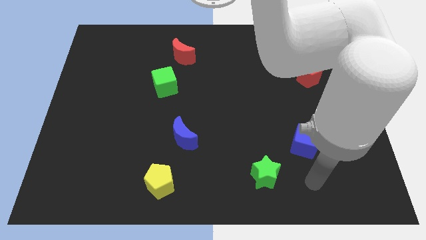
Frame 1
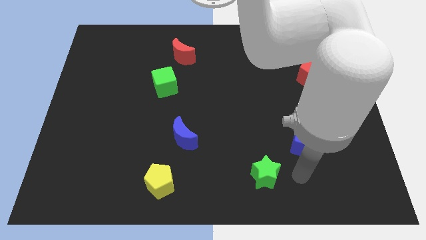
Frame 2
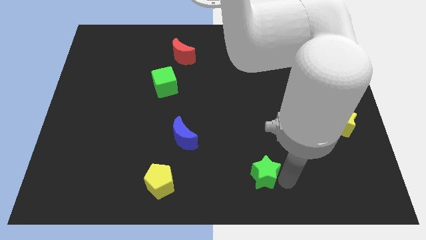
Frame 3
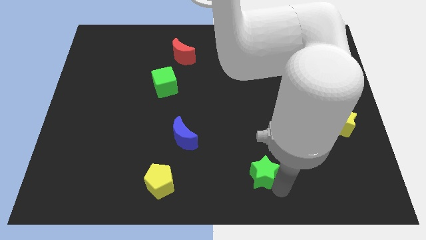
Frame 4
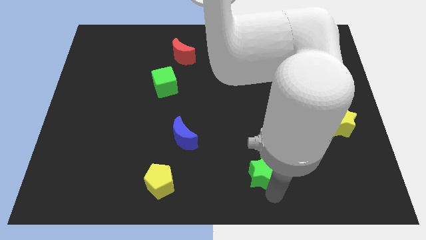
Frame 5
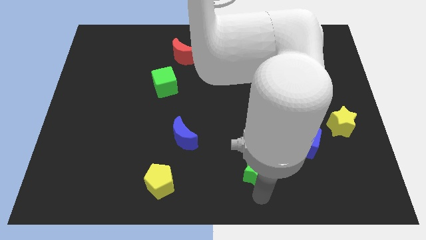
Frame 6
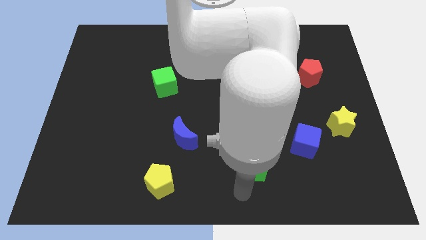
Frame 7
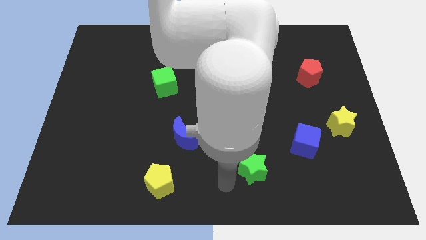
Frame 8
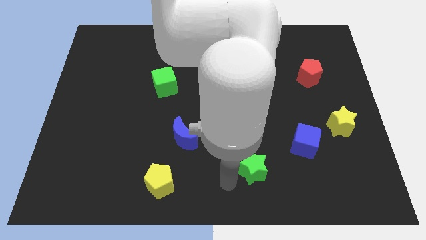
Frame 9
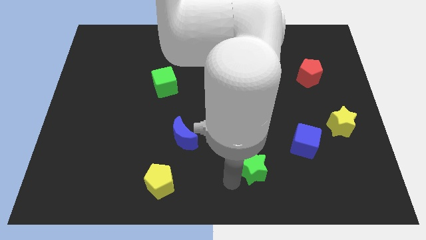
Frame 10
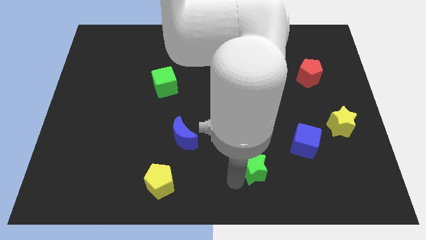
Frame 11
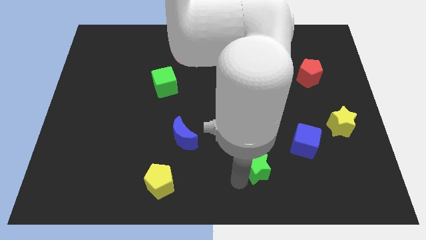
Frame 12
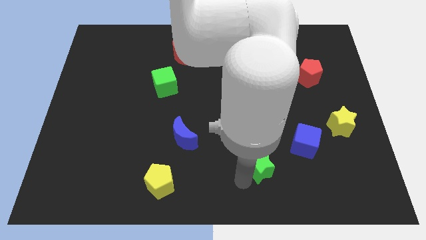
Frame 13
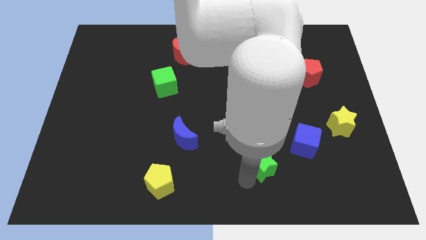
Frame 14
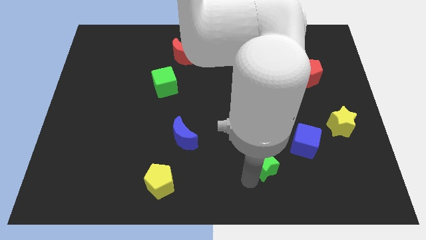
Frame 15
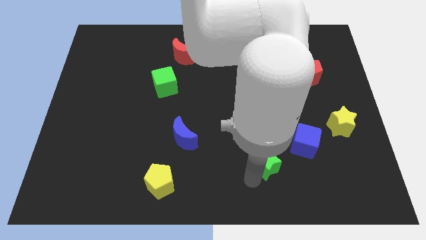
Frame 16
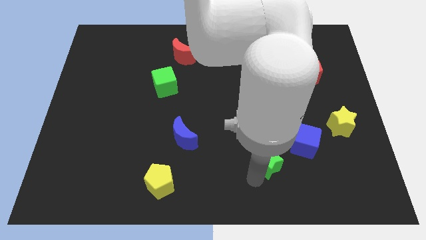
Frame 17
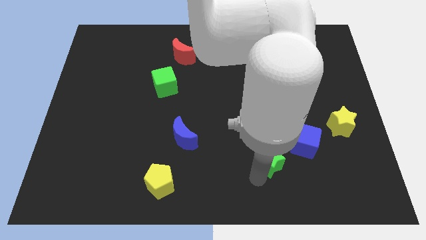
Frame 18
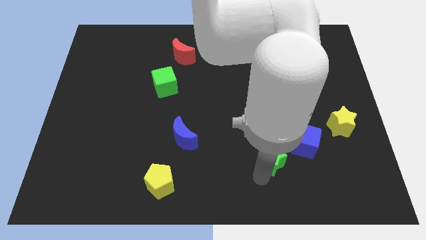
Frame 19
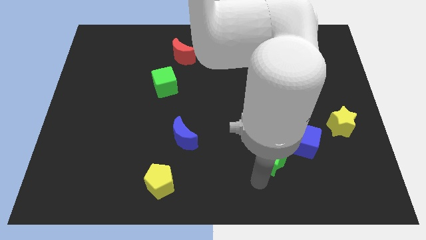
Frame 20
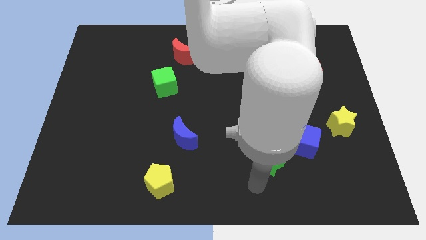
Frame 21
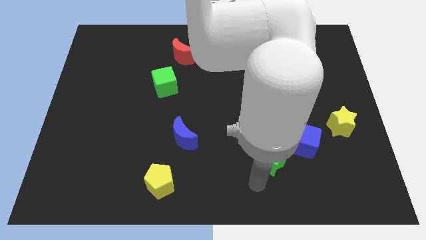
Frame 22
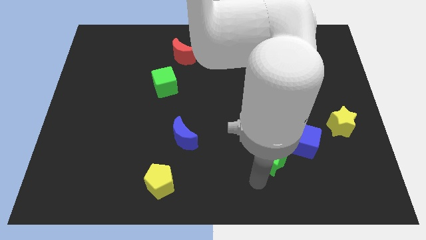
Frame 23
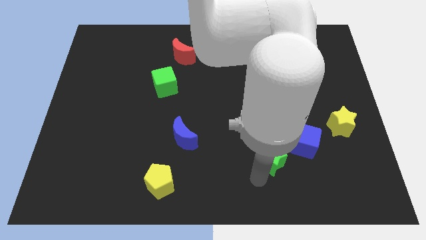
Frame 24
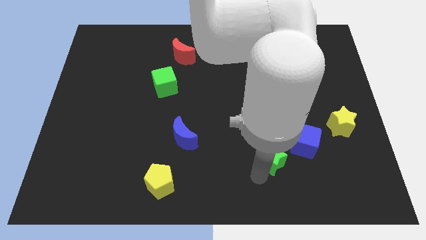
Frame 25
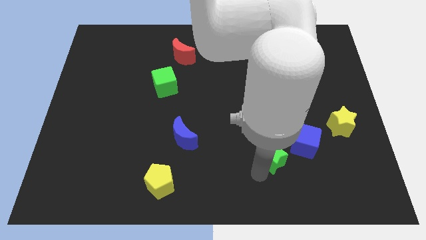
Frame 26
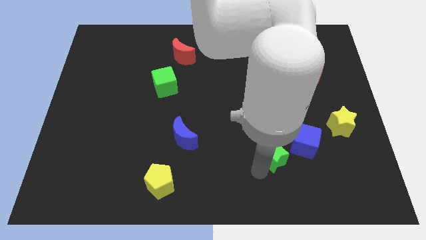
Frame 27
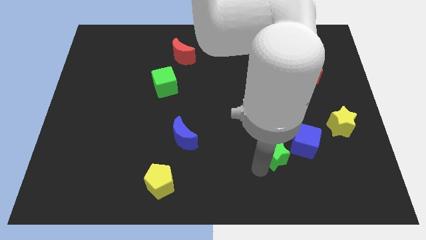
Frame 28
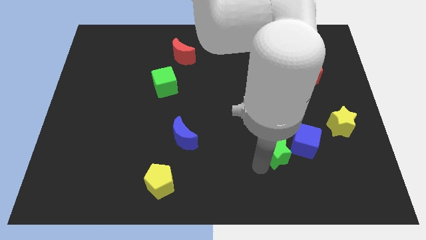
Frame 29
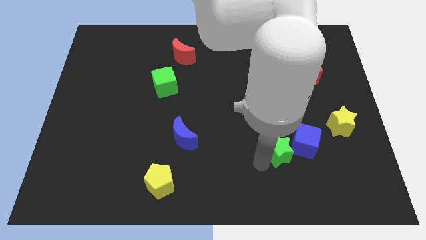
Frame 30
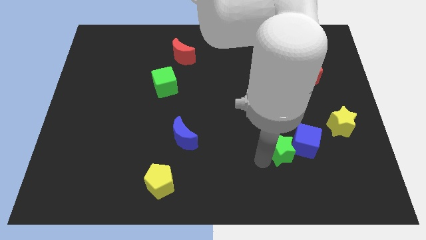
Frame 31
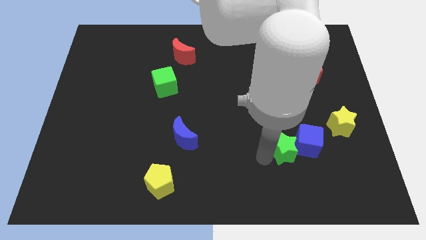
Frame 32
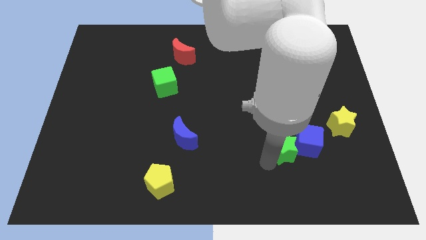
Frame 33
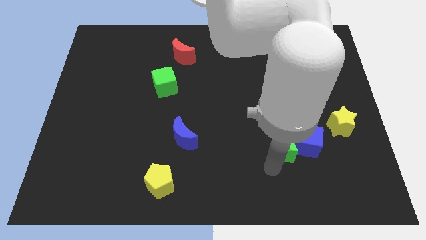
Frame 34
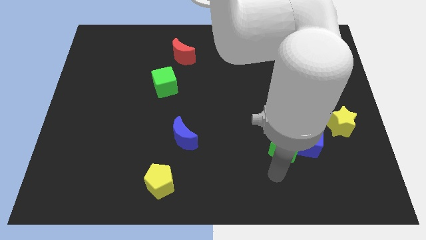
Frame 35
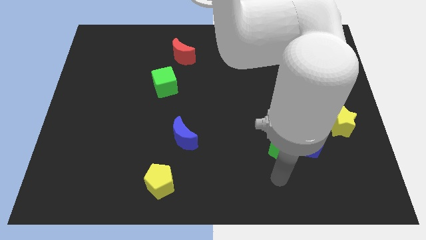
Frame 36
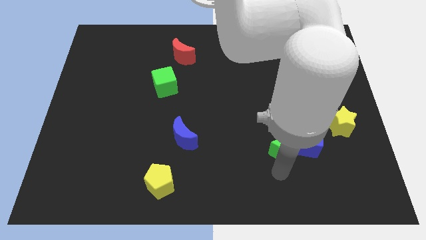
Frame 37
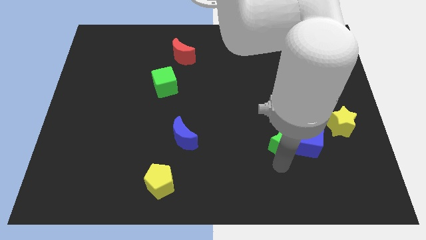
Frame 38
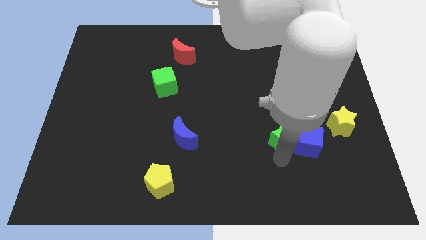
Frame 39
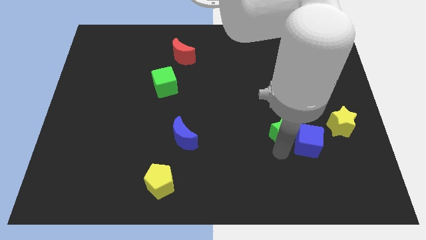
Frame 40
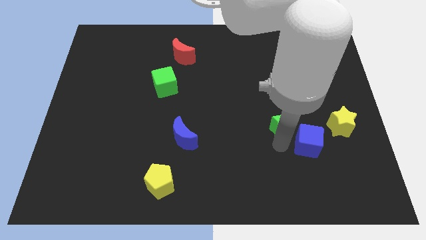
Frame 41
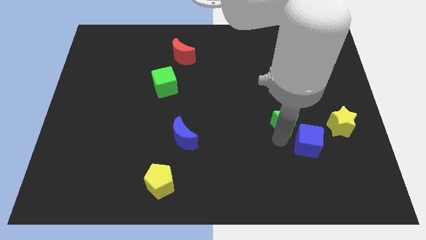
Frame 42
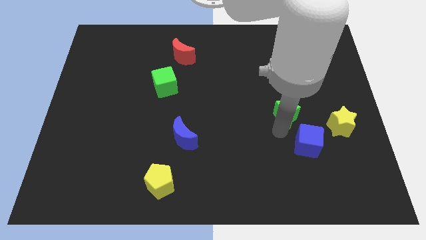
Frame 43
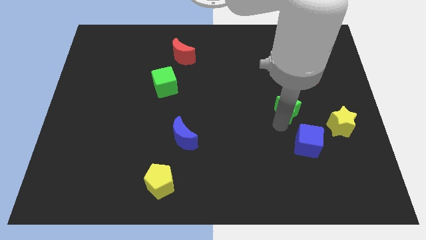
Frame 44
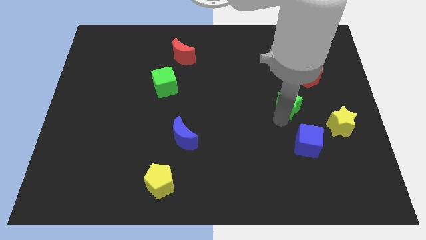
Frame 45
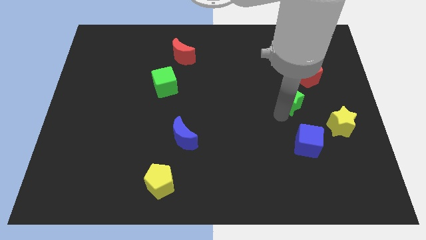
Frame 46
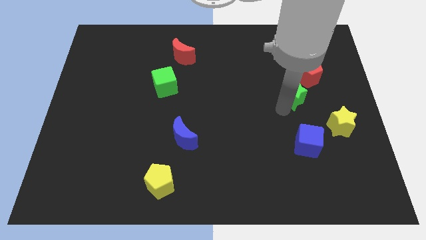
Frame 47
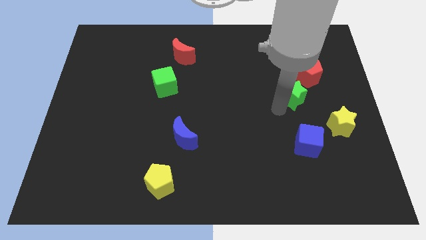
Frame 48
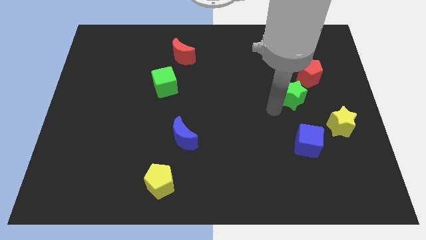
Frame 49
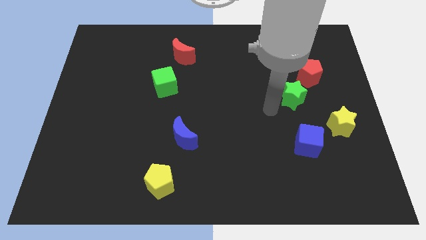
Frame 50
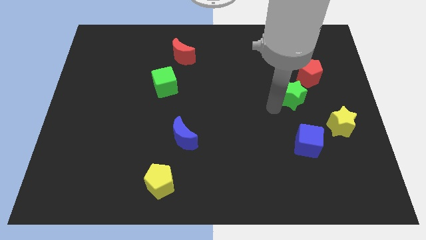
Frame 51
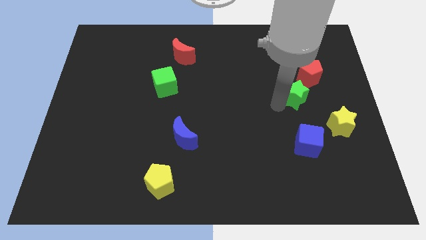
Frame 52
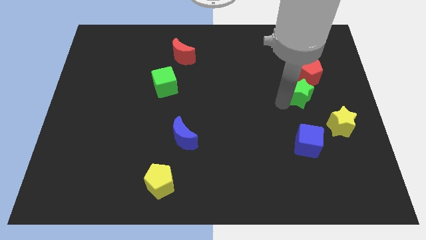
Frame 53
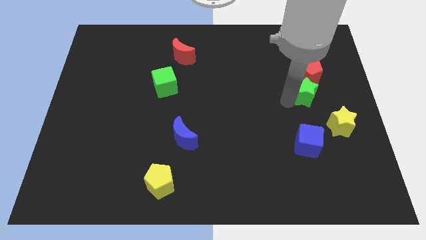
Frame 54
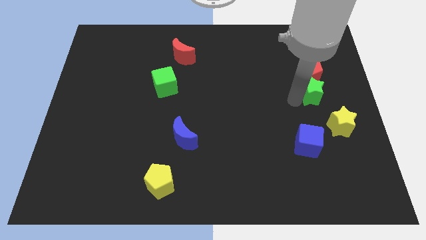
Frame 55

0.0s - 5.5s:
move the green star next to the red pentagon

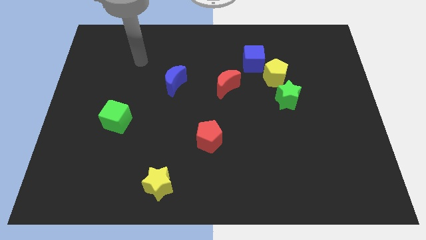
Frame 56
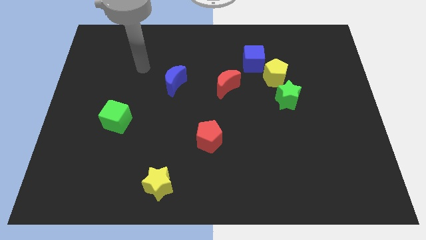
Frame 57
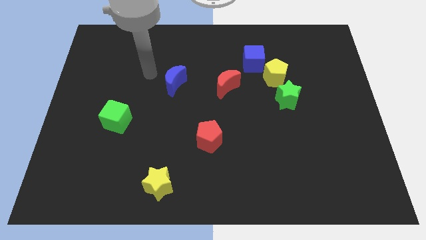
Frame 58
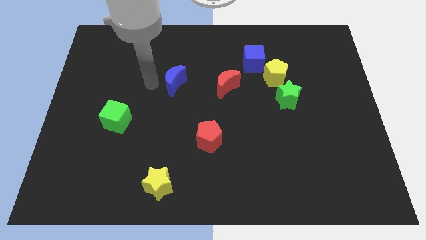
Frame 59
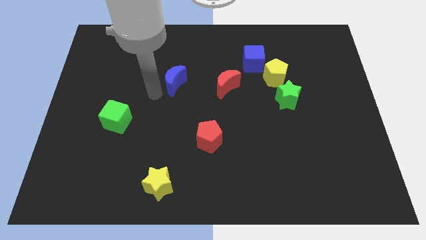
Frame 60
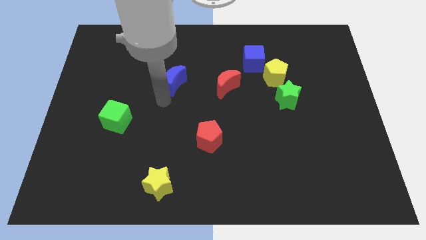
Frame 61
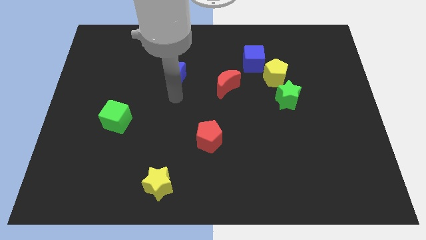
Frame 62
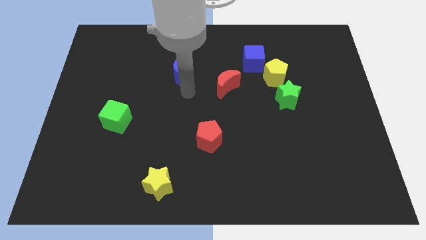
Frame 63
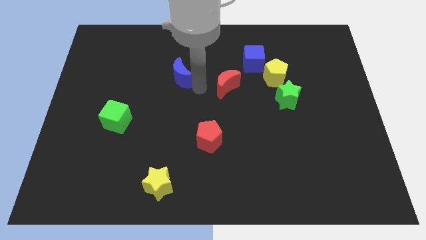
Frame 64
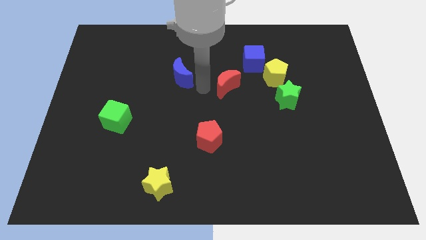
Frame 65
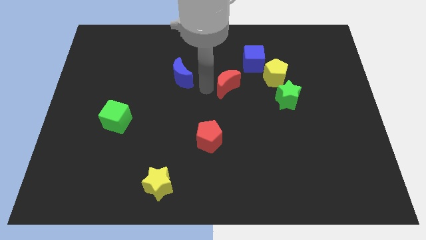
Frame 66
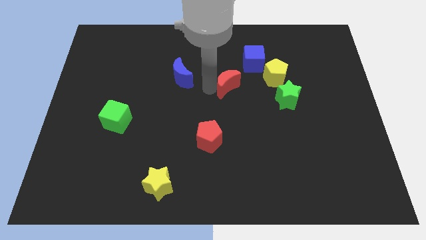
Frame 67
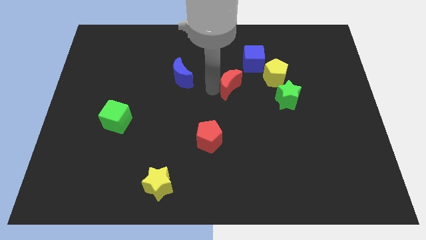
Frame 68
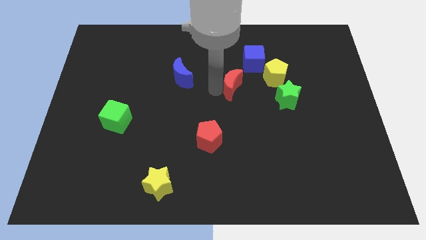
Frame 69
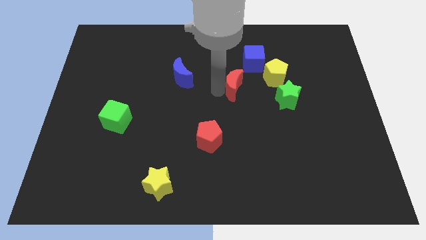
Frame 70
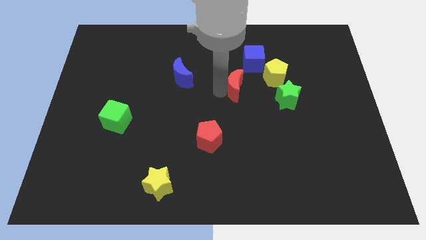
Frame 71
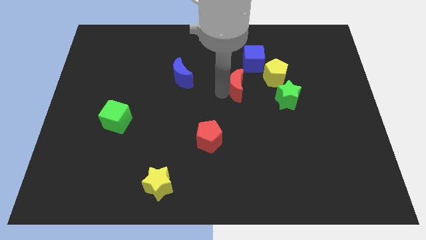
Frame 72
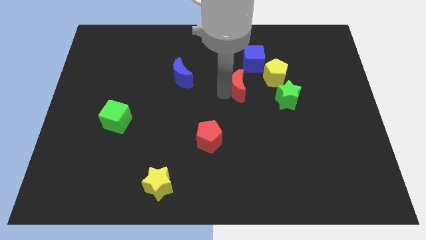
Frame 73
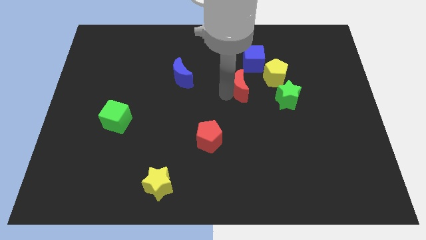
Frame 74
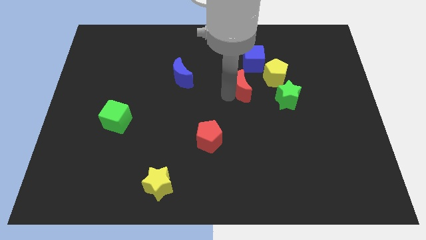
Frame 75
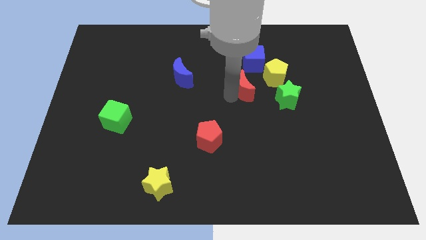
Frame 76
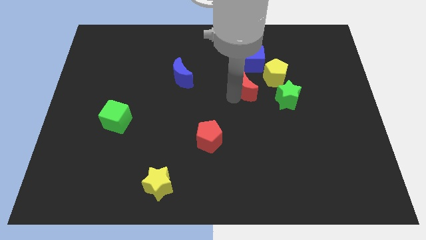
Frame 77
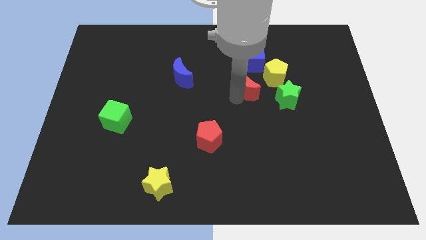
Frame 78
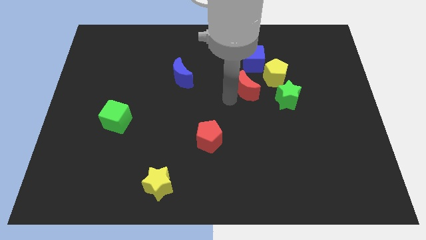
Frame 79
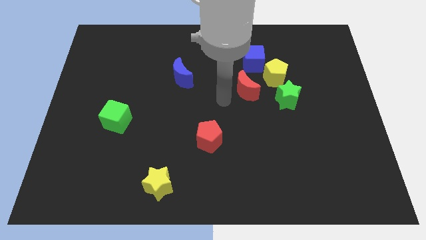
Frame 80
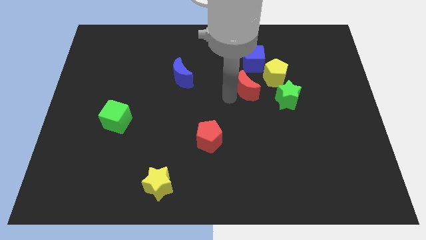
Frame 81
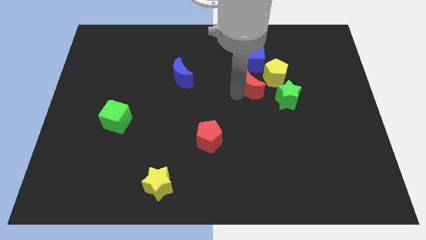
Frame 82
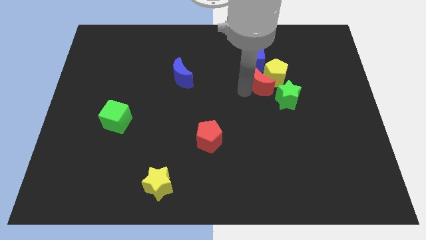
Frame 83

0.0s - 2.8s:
put the red moon next to the yellow pentagon
